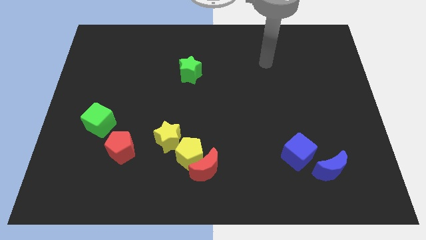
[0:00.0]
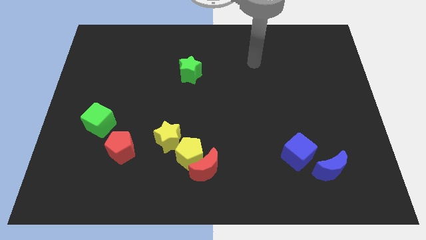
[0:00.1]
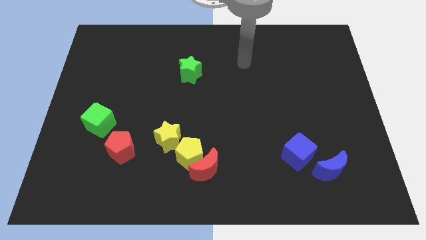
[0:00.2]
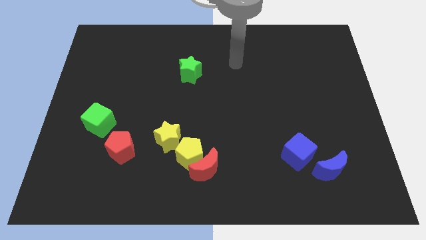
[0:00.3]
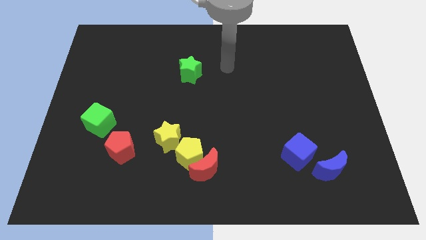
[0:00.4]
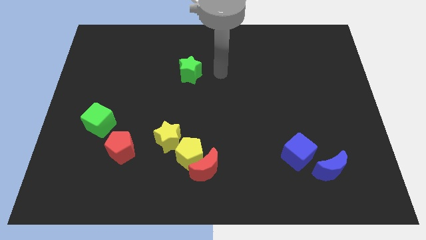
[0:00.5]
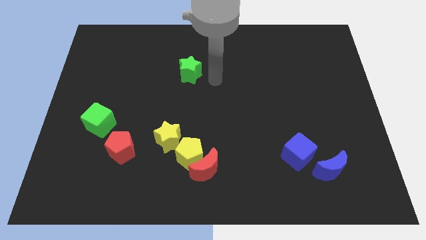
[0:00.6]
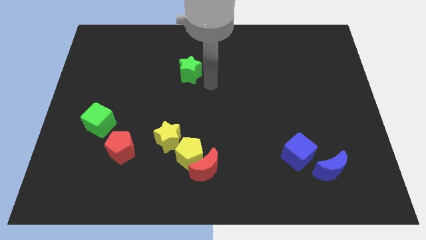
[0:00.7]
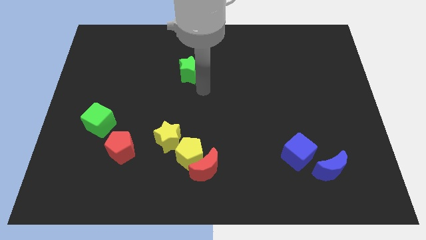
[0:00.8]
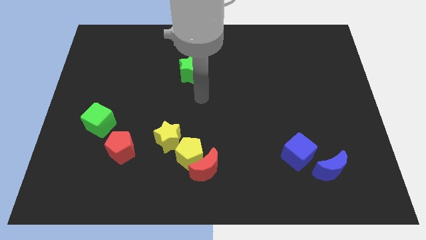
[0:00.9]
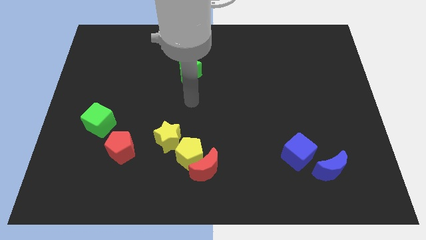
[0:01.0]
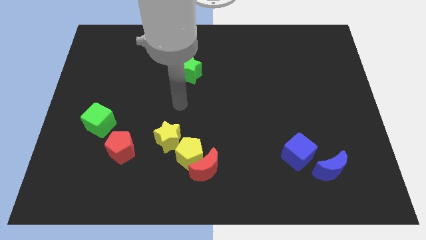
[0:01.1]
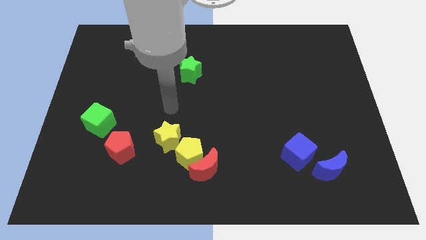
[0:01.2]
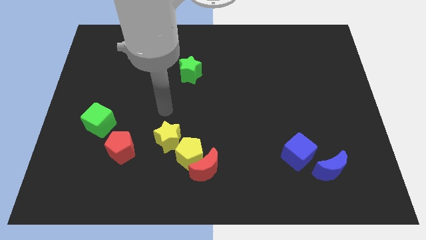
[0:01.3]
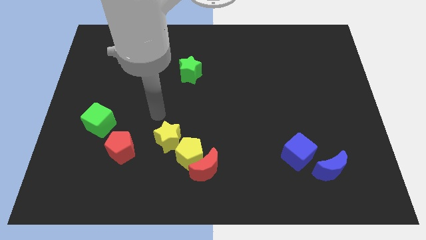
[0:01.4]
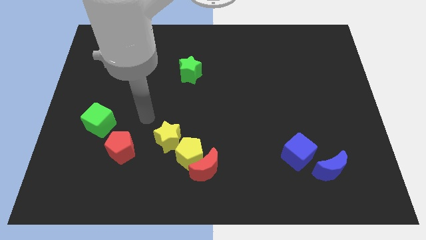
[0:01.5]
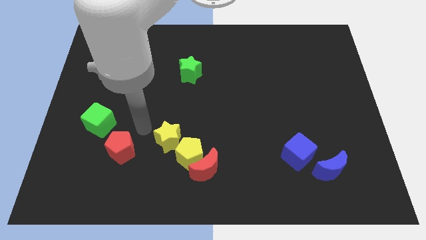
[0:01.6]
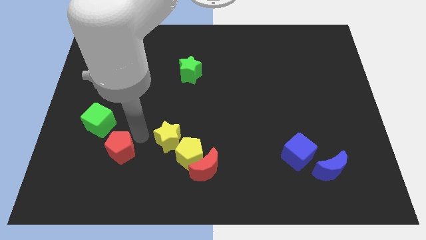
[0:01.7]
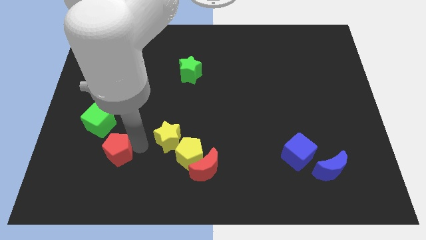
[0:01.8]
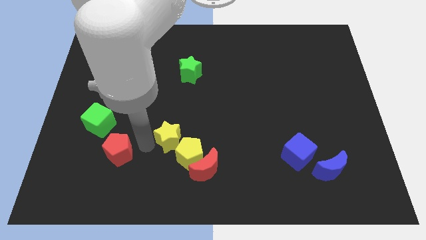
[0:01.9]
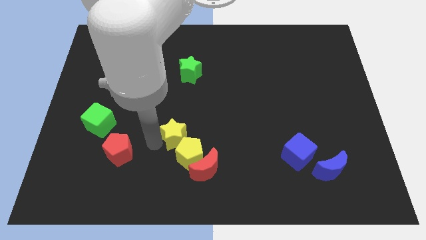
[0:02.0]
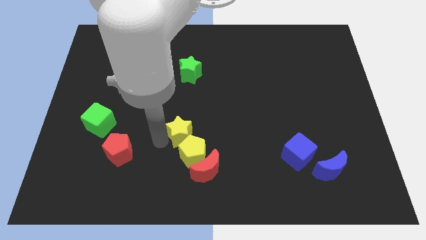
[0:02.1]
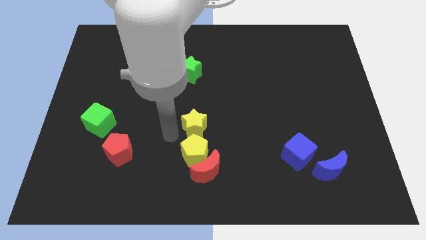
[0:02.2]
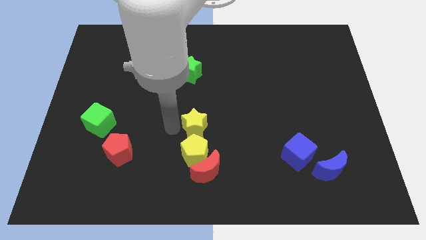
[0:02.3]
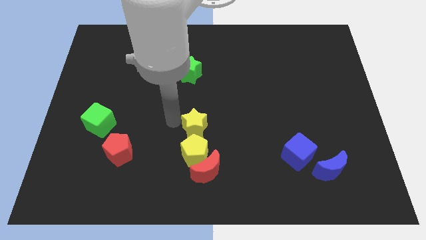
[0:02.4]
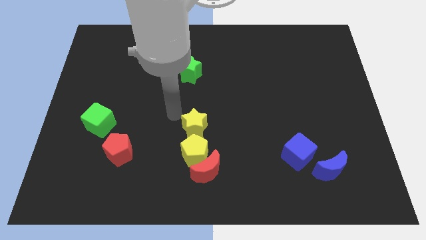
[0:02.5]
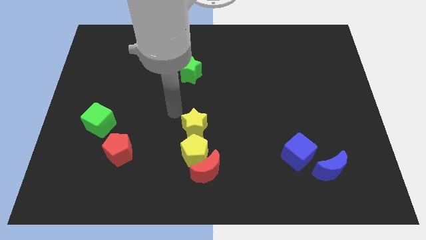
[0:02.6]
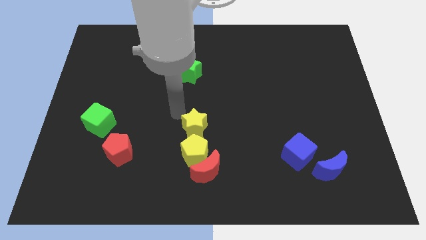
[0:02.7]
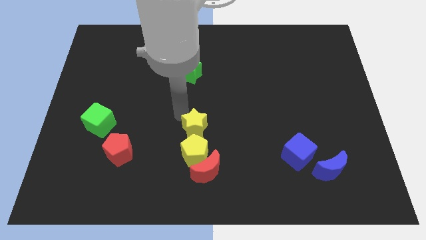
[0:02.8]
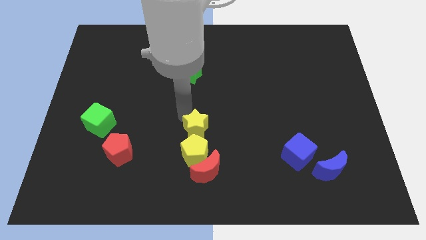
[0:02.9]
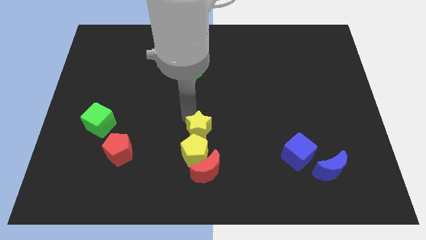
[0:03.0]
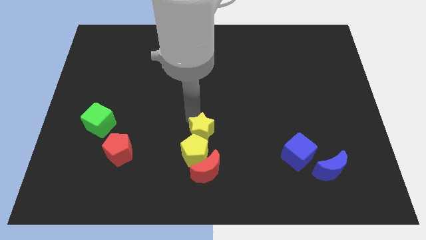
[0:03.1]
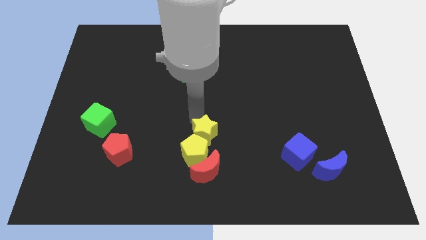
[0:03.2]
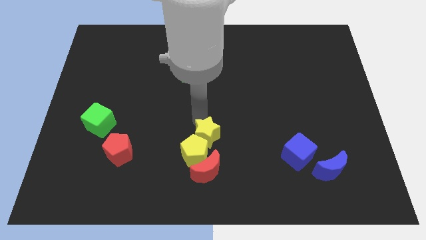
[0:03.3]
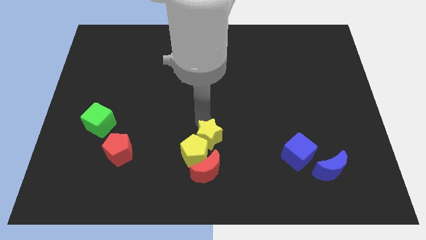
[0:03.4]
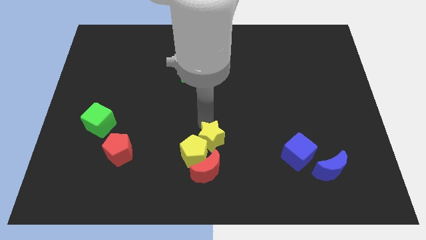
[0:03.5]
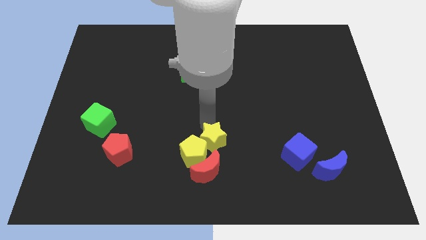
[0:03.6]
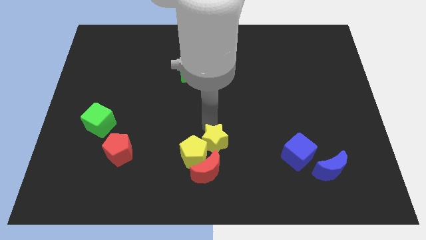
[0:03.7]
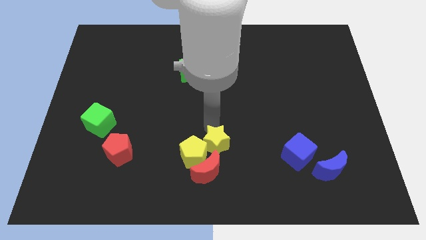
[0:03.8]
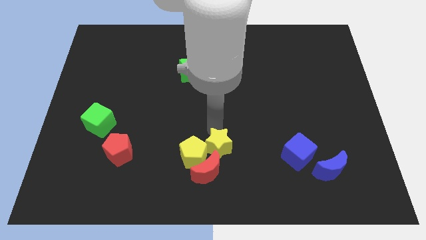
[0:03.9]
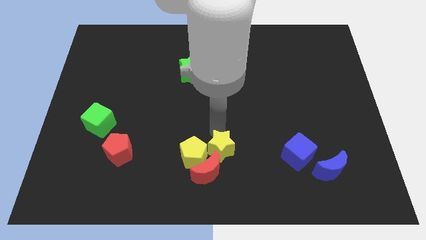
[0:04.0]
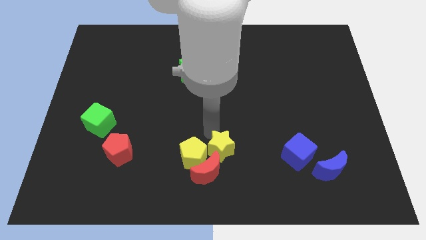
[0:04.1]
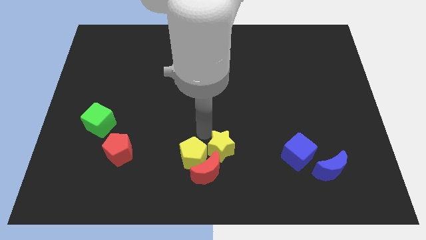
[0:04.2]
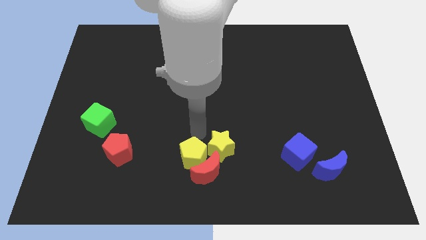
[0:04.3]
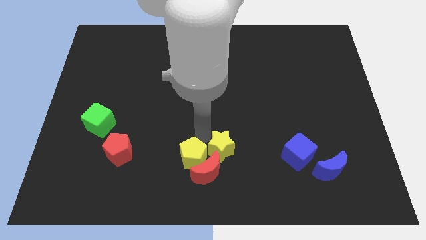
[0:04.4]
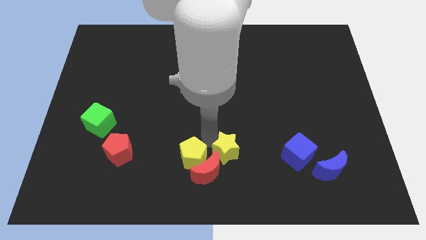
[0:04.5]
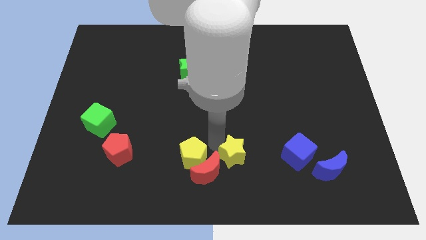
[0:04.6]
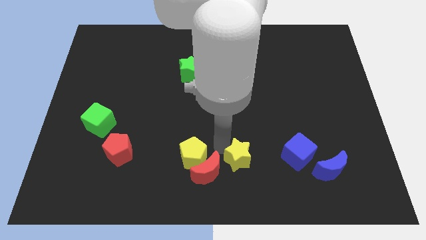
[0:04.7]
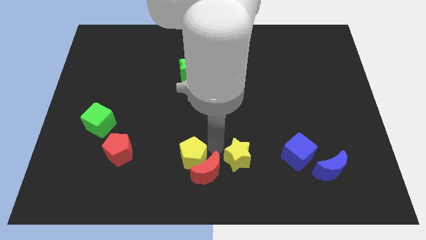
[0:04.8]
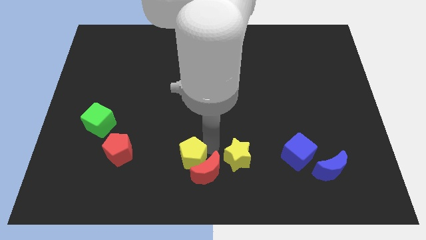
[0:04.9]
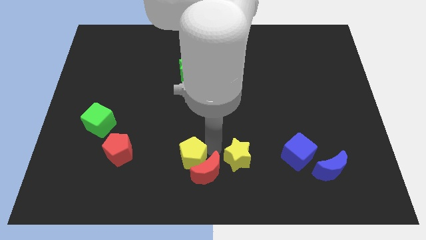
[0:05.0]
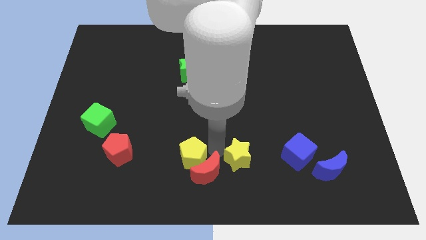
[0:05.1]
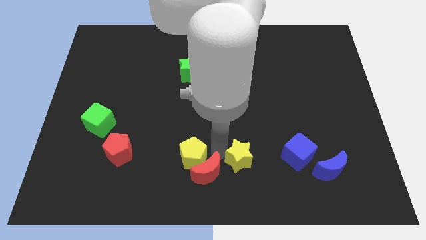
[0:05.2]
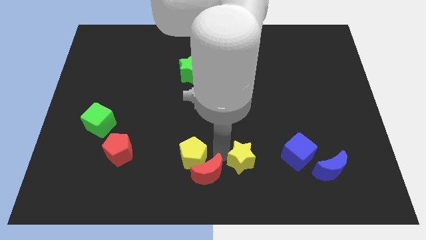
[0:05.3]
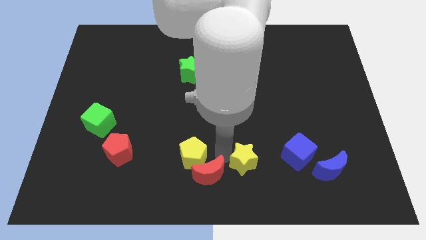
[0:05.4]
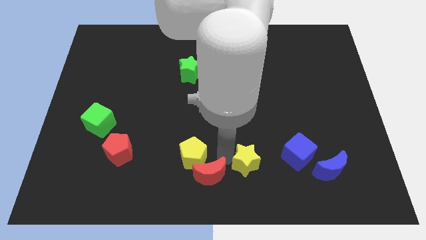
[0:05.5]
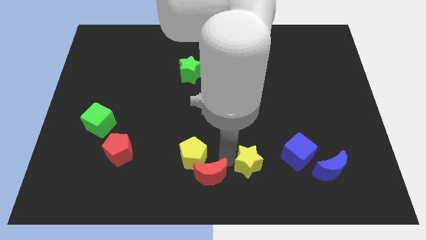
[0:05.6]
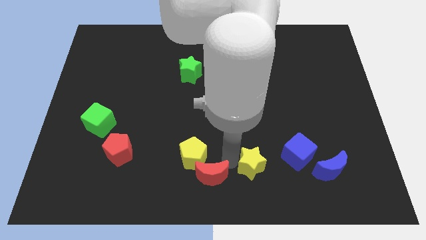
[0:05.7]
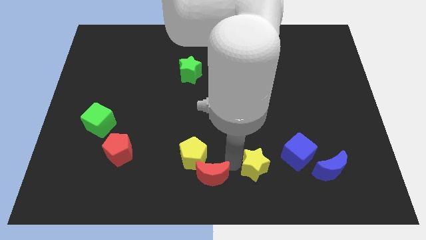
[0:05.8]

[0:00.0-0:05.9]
put the yellow star to the left of the blue moon

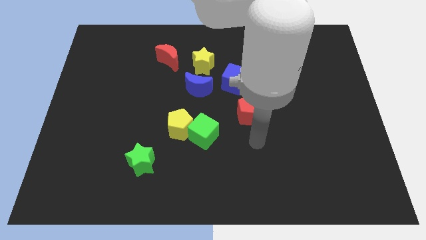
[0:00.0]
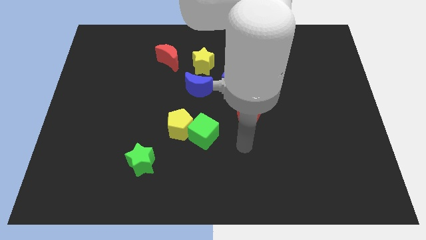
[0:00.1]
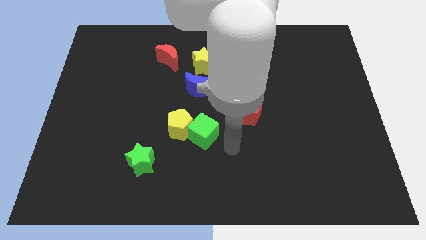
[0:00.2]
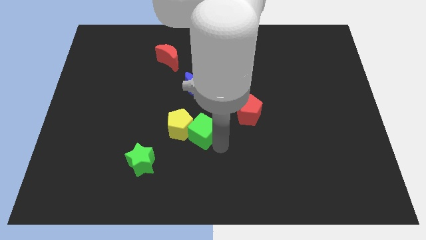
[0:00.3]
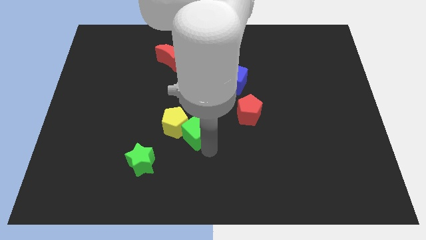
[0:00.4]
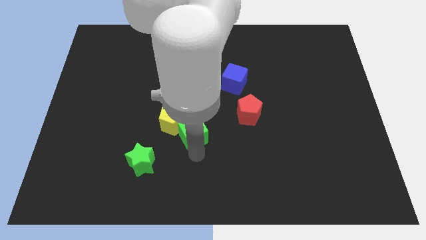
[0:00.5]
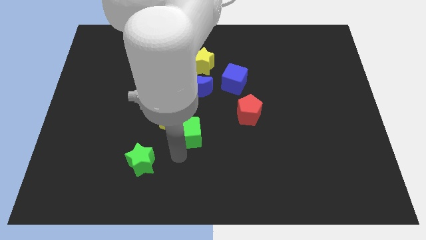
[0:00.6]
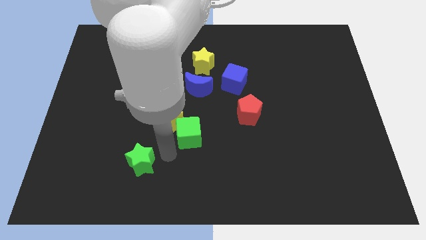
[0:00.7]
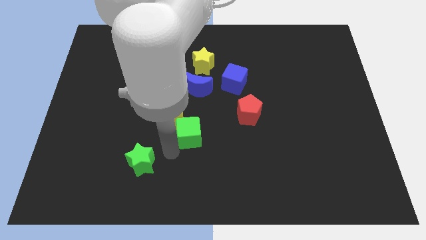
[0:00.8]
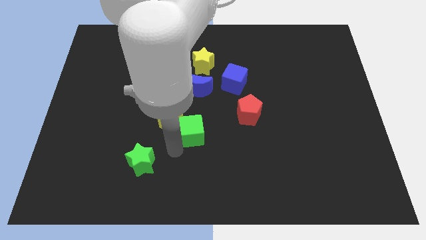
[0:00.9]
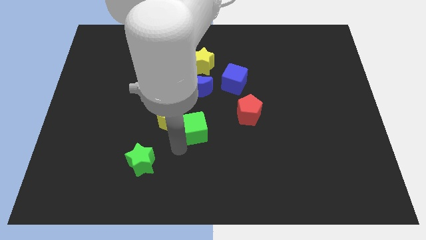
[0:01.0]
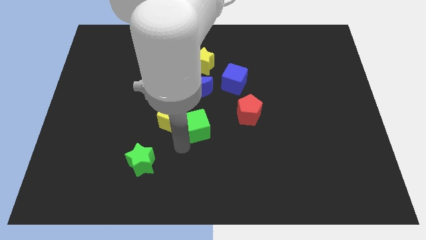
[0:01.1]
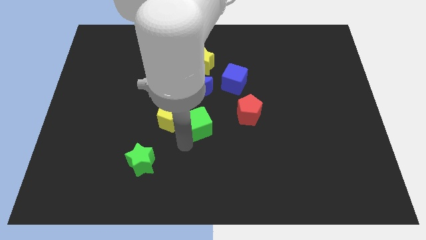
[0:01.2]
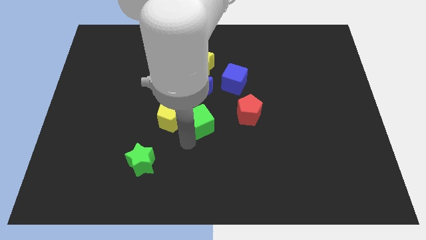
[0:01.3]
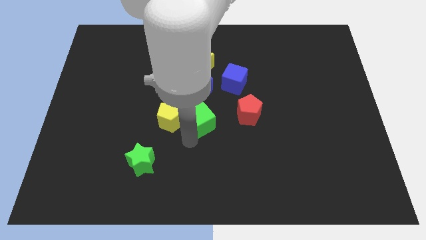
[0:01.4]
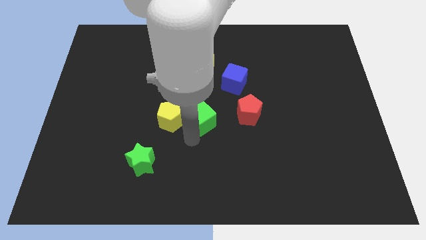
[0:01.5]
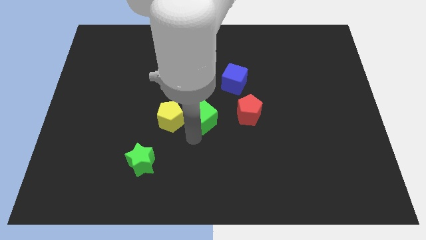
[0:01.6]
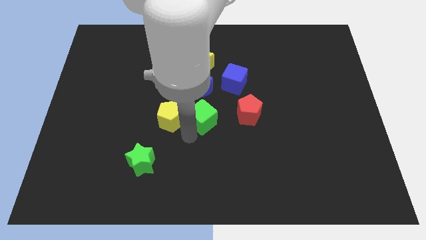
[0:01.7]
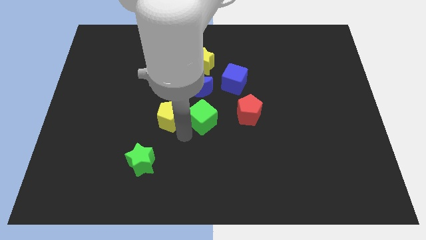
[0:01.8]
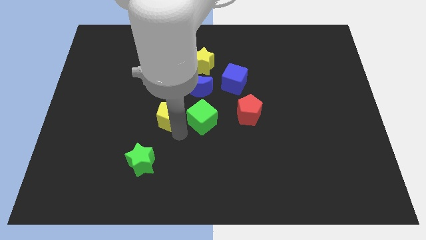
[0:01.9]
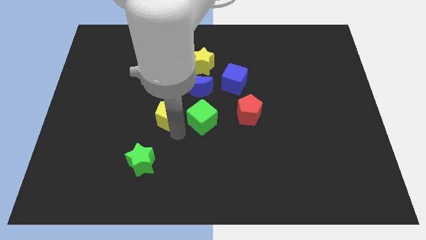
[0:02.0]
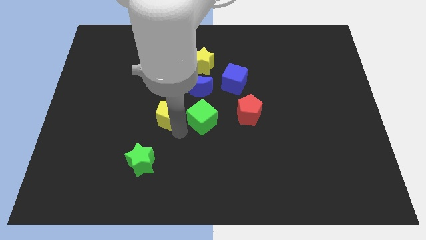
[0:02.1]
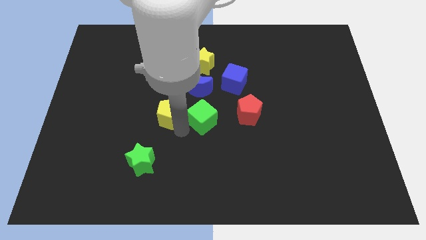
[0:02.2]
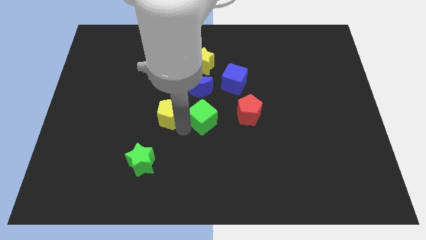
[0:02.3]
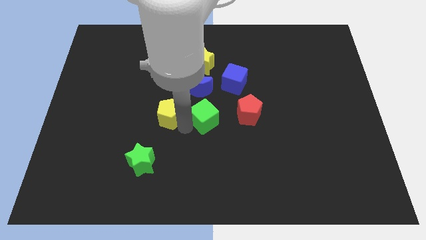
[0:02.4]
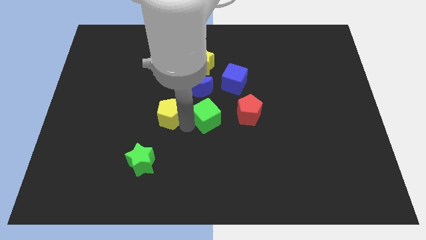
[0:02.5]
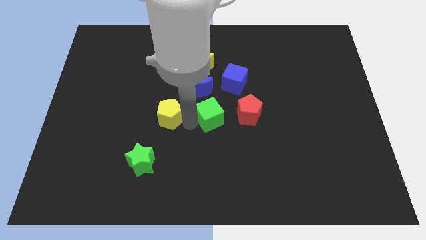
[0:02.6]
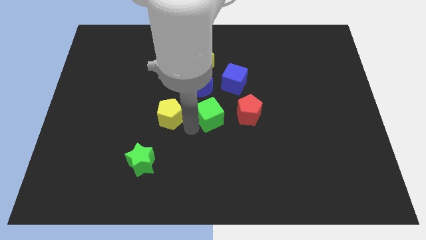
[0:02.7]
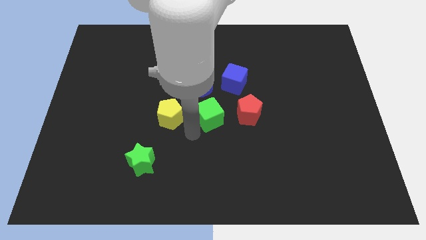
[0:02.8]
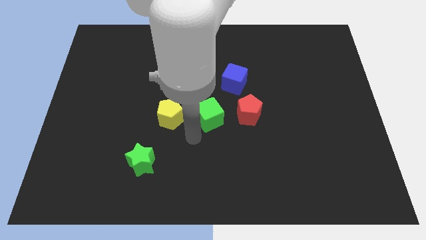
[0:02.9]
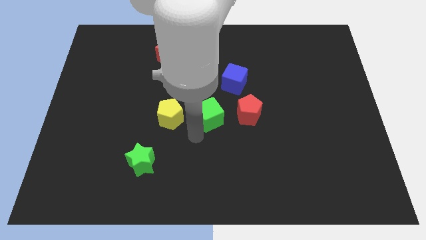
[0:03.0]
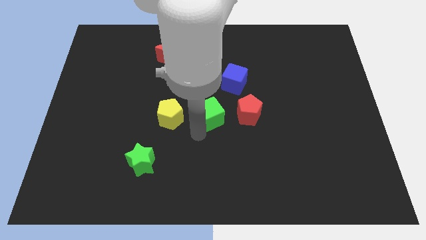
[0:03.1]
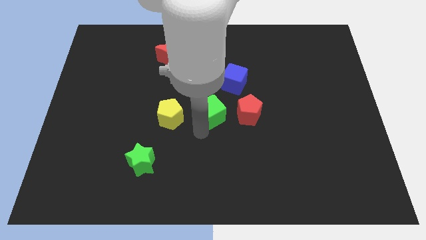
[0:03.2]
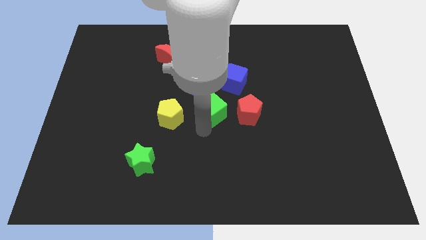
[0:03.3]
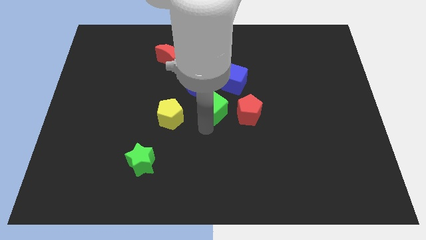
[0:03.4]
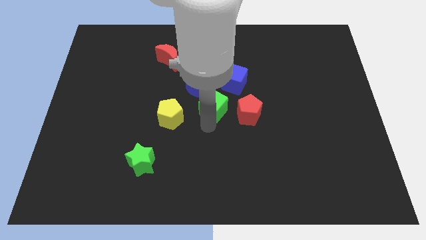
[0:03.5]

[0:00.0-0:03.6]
push the green cube to the top left side of the red pentagon
